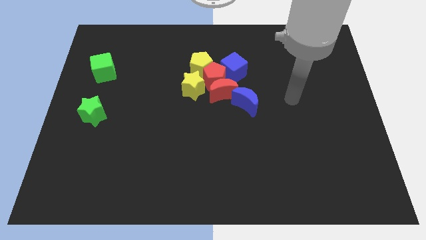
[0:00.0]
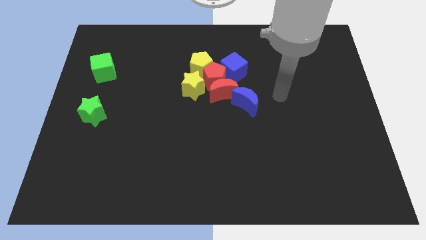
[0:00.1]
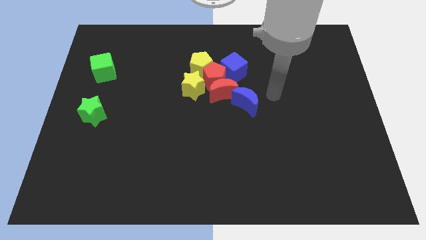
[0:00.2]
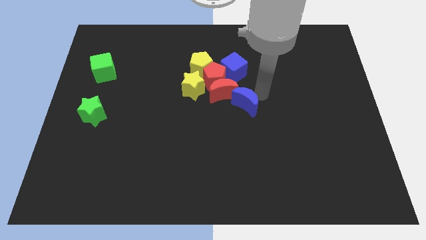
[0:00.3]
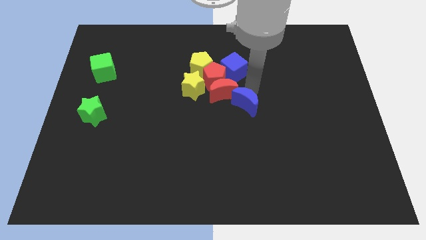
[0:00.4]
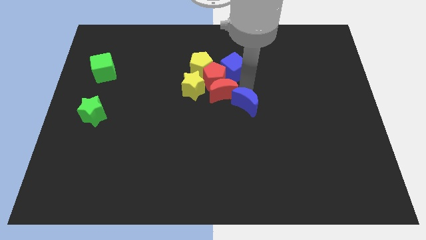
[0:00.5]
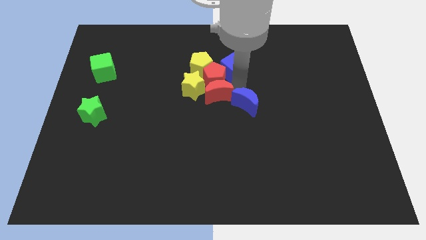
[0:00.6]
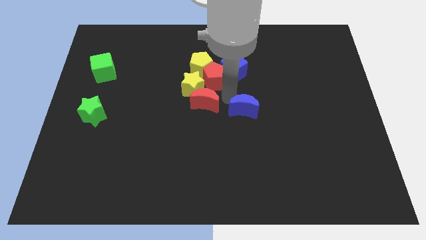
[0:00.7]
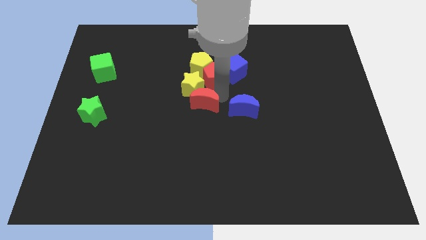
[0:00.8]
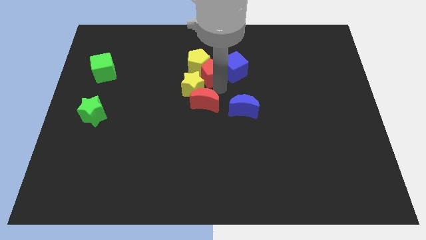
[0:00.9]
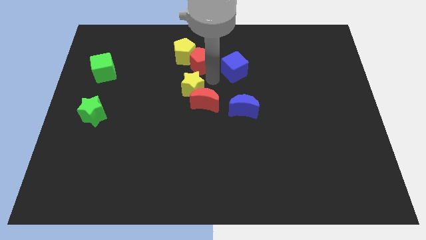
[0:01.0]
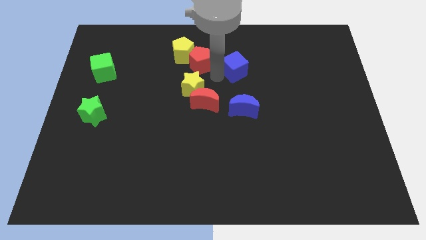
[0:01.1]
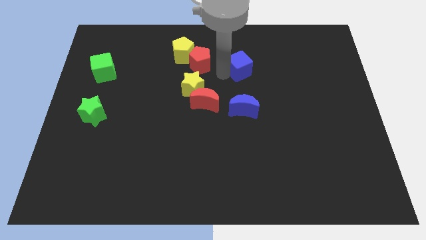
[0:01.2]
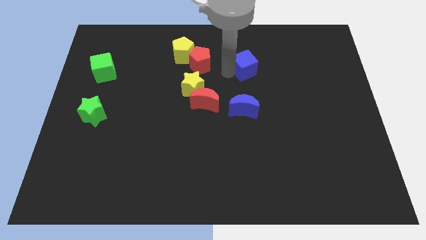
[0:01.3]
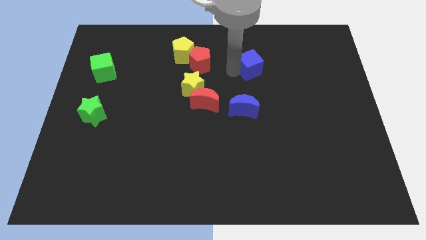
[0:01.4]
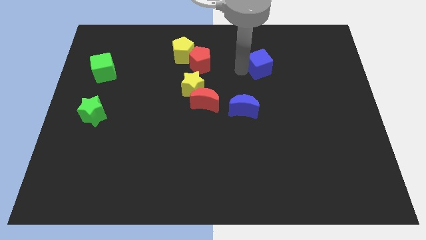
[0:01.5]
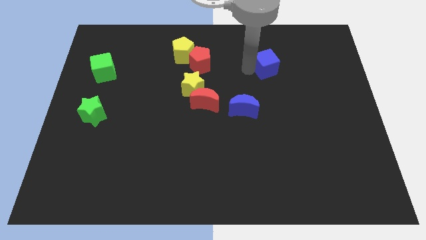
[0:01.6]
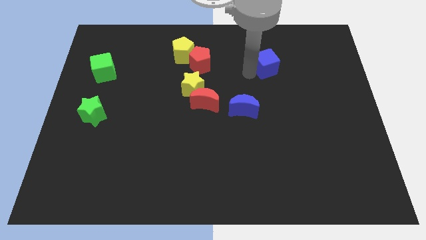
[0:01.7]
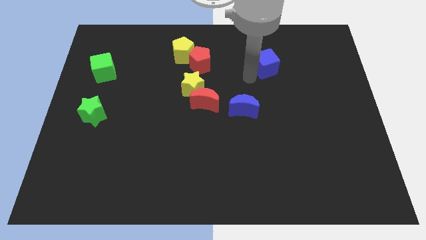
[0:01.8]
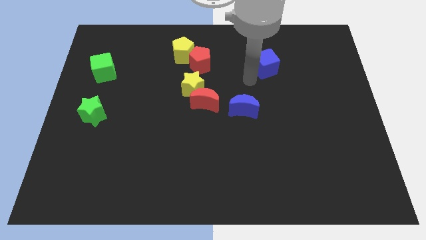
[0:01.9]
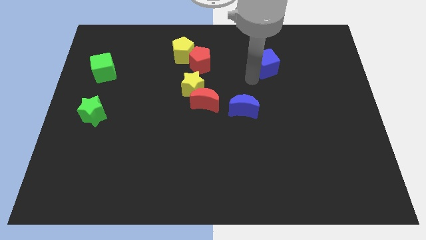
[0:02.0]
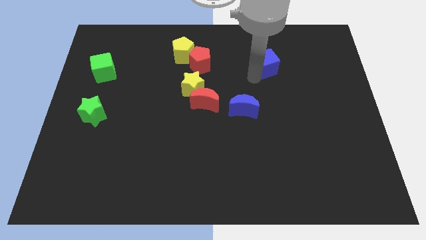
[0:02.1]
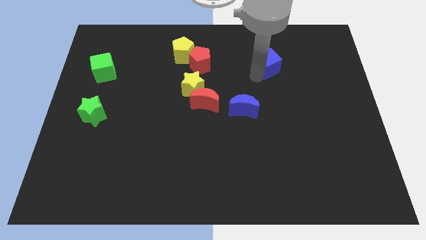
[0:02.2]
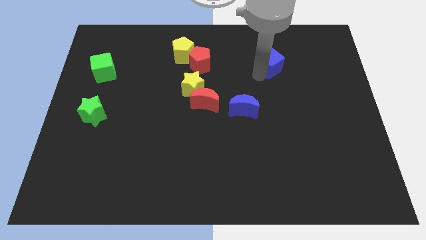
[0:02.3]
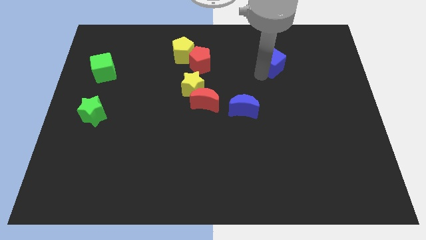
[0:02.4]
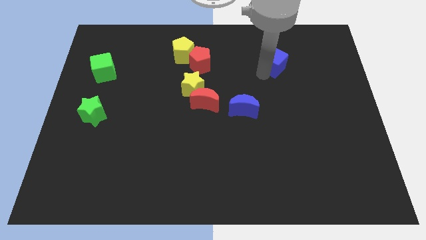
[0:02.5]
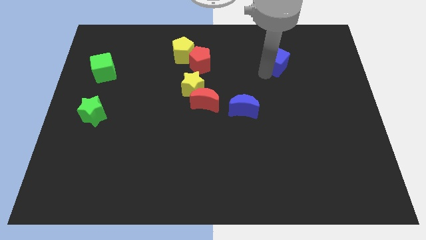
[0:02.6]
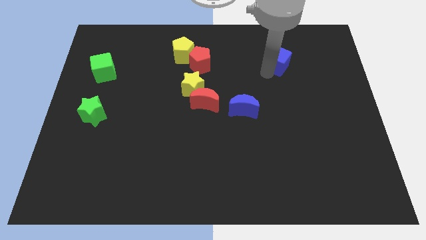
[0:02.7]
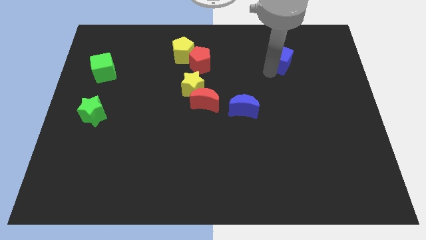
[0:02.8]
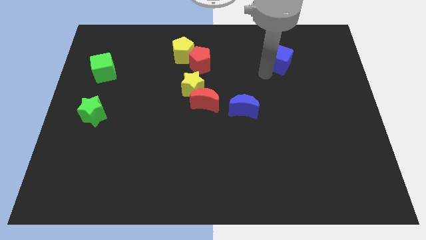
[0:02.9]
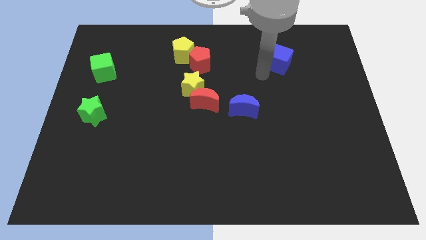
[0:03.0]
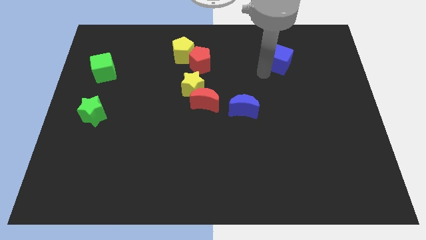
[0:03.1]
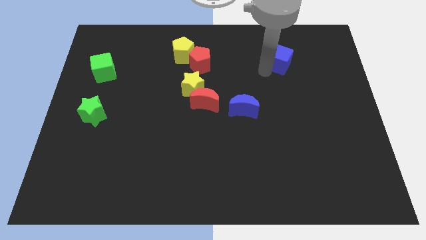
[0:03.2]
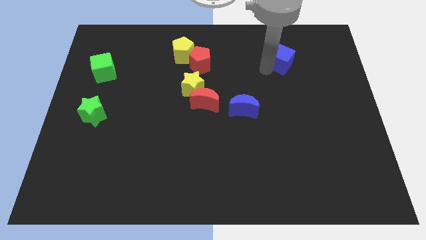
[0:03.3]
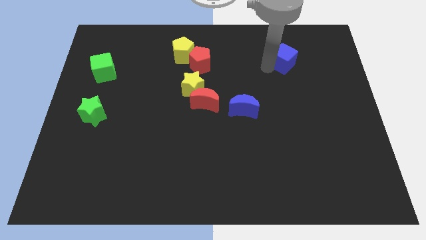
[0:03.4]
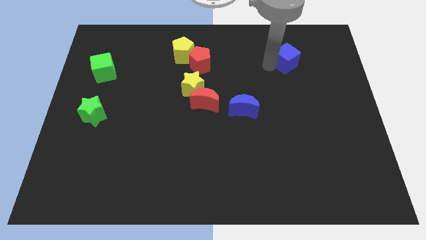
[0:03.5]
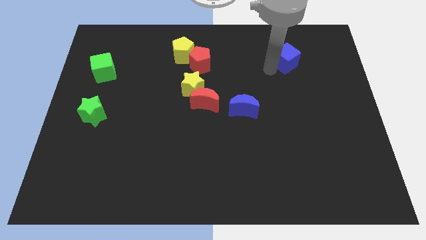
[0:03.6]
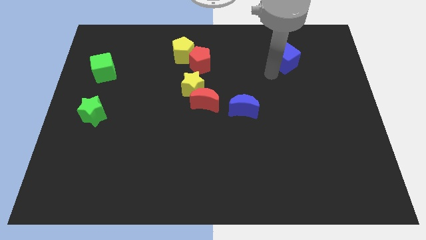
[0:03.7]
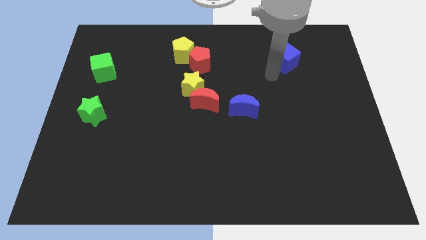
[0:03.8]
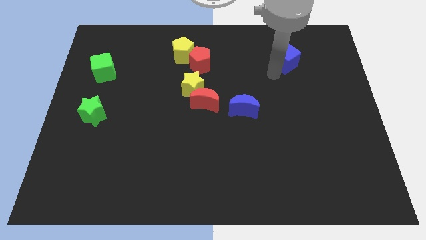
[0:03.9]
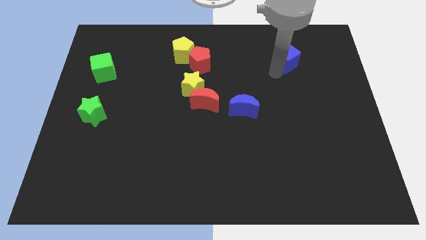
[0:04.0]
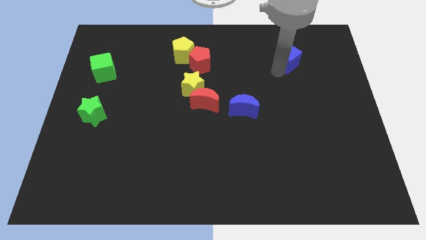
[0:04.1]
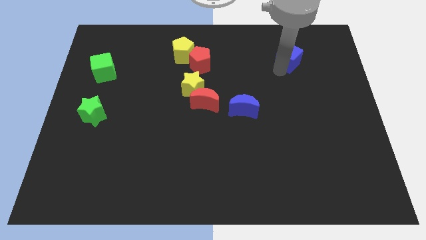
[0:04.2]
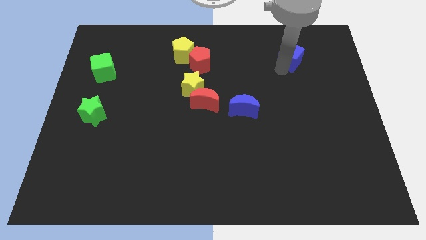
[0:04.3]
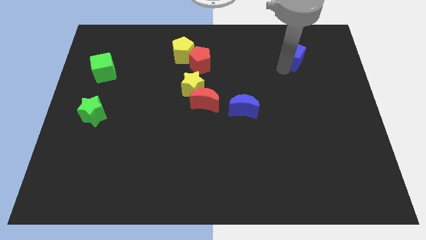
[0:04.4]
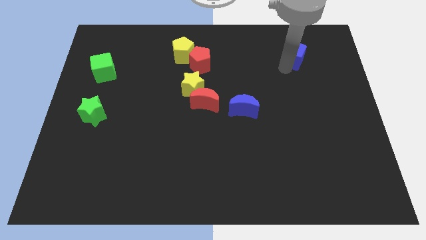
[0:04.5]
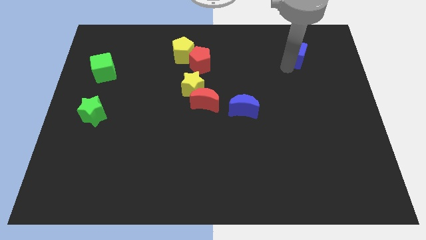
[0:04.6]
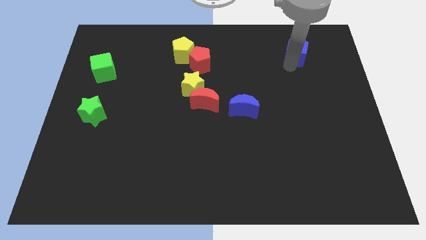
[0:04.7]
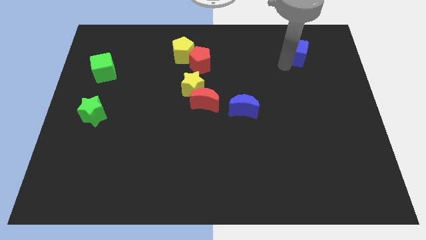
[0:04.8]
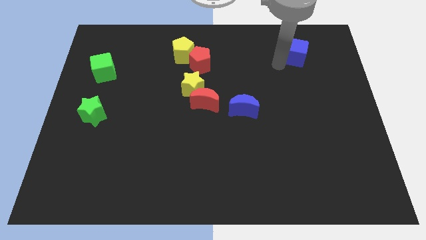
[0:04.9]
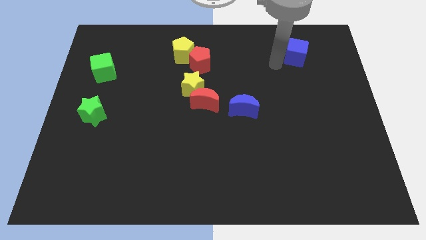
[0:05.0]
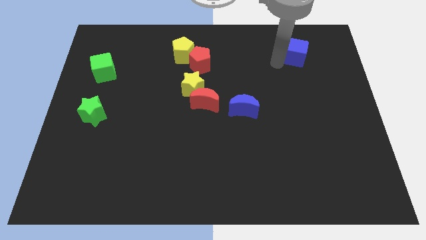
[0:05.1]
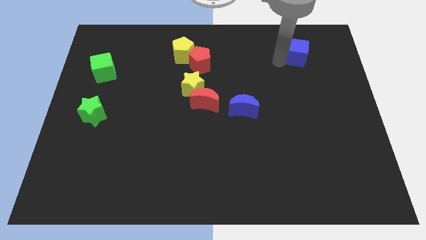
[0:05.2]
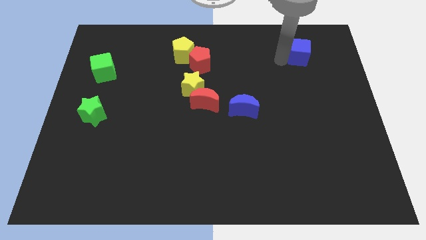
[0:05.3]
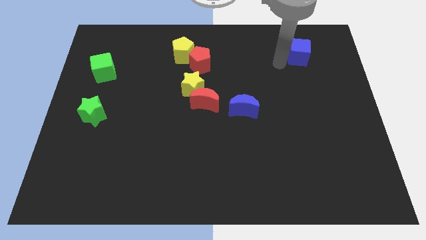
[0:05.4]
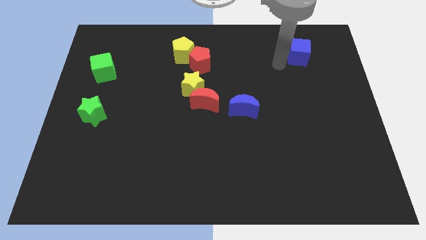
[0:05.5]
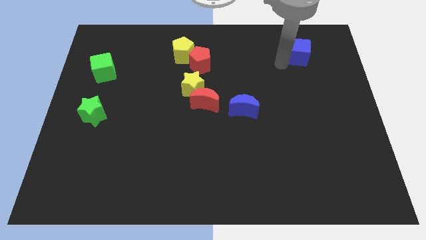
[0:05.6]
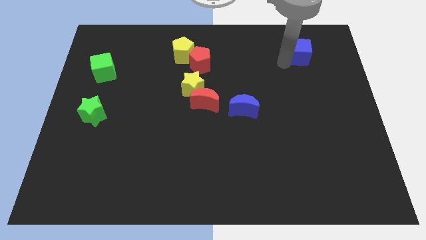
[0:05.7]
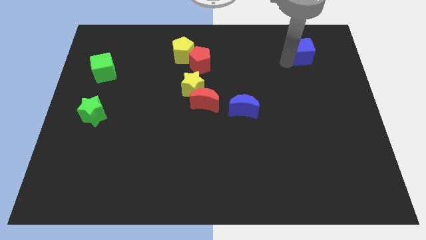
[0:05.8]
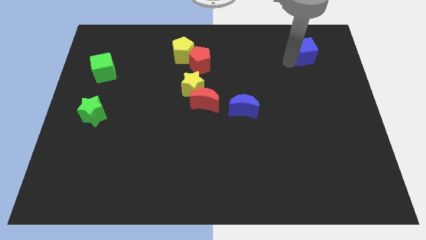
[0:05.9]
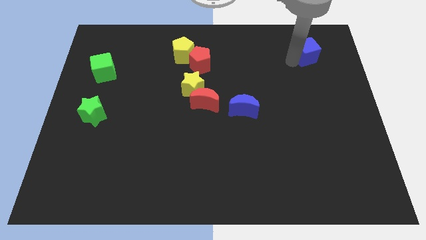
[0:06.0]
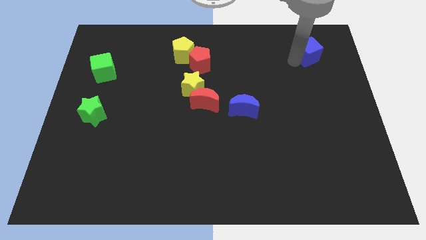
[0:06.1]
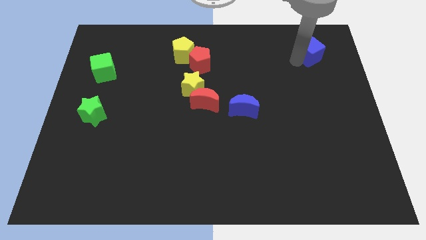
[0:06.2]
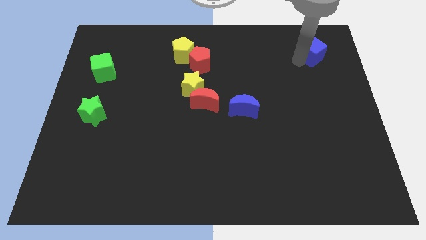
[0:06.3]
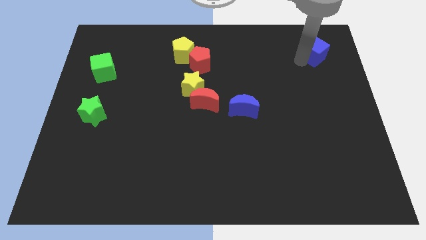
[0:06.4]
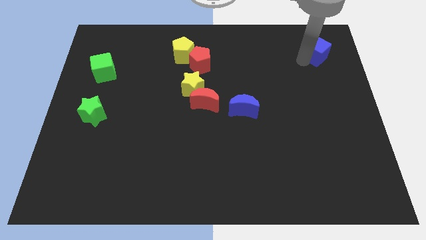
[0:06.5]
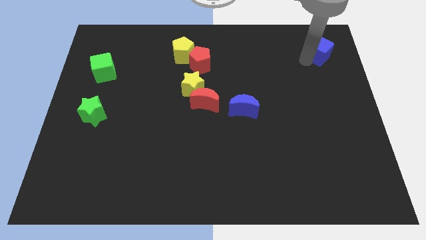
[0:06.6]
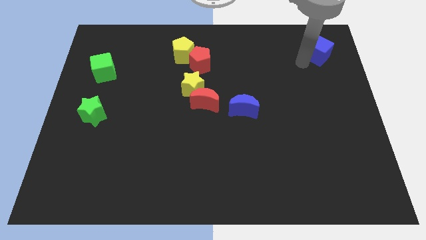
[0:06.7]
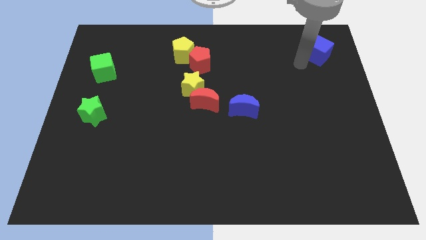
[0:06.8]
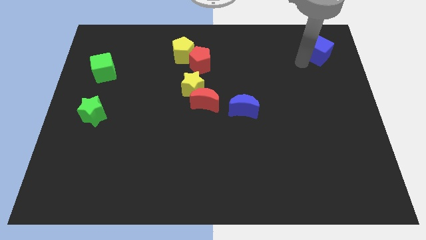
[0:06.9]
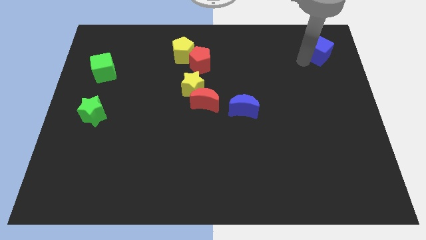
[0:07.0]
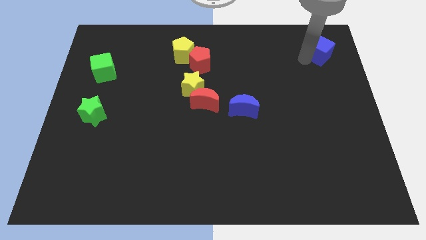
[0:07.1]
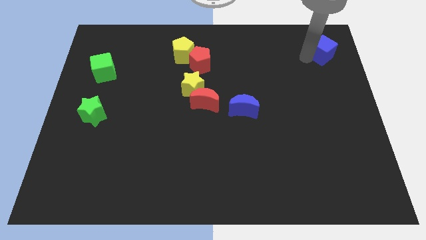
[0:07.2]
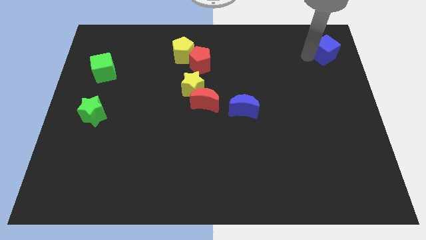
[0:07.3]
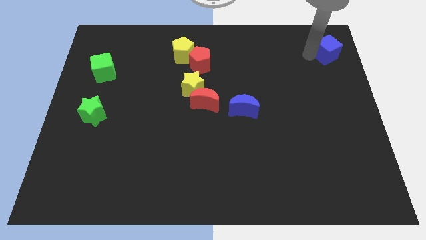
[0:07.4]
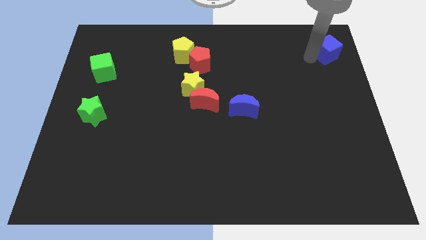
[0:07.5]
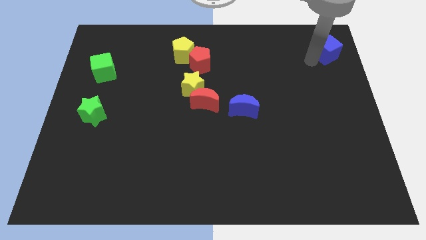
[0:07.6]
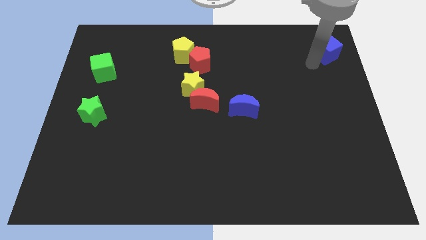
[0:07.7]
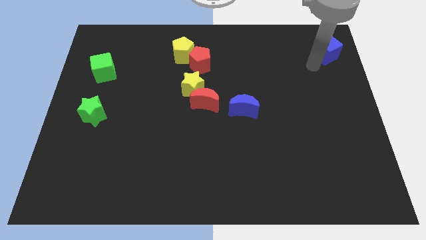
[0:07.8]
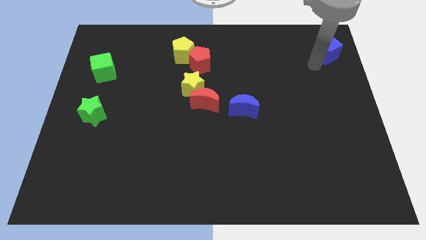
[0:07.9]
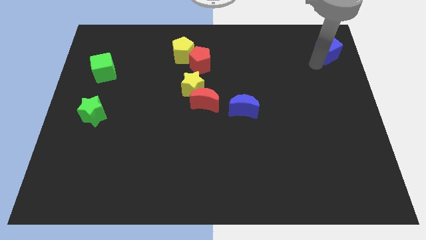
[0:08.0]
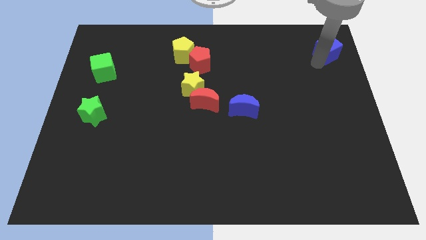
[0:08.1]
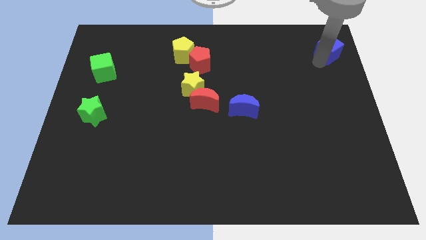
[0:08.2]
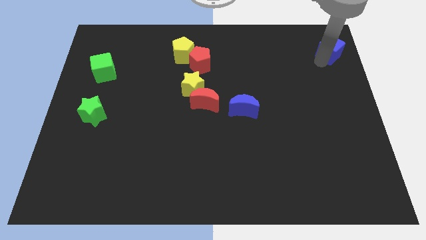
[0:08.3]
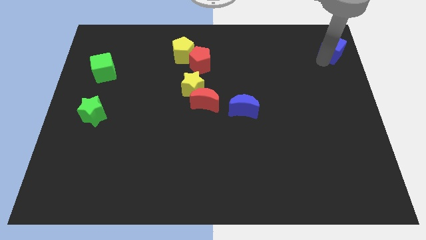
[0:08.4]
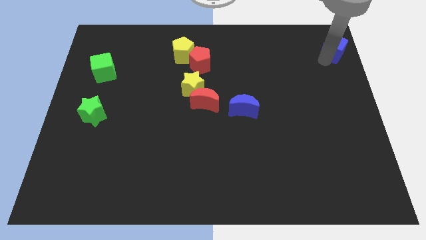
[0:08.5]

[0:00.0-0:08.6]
put the blue cube to the upper right corner
